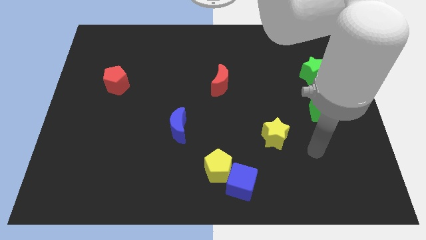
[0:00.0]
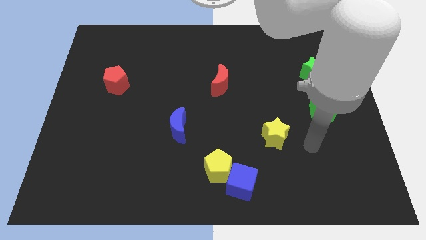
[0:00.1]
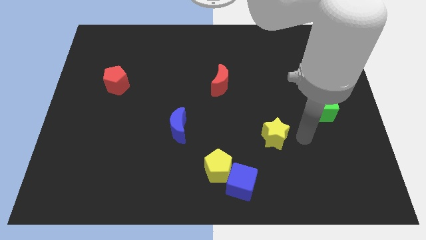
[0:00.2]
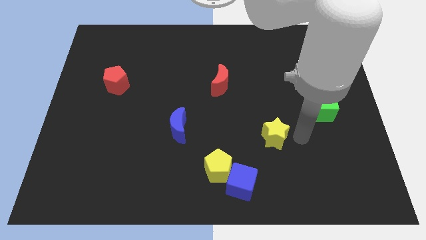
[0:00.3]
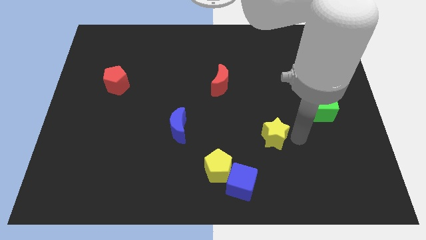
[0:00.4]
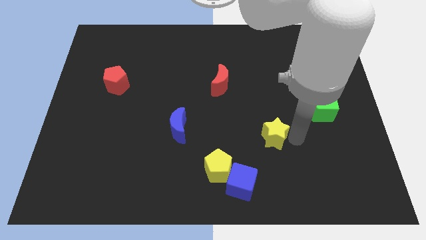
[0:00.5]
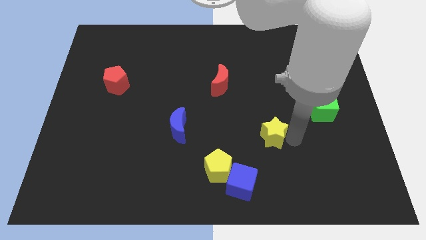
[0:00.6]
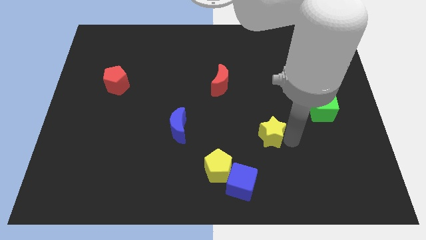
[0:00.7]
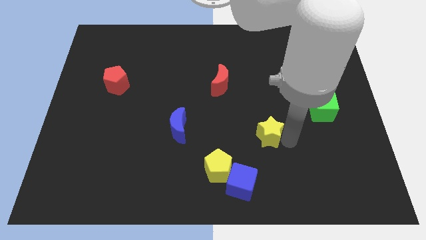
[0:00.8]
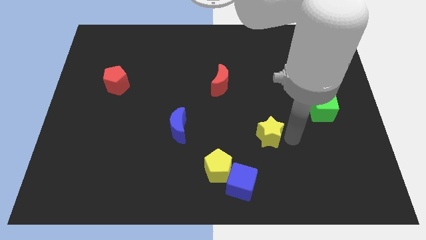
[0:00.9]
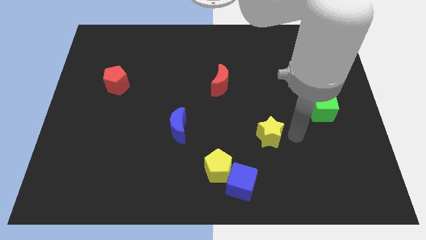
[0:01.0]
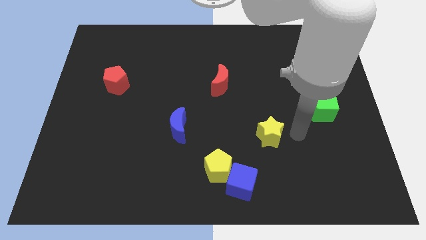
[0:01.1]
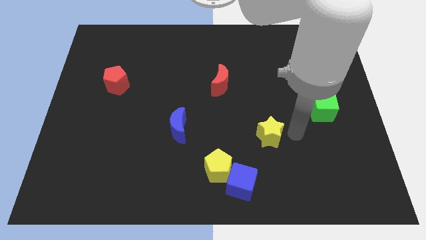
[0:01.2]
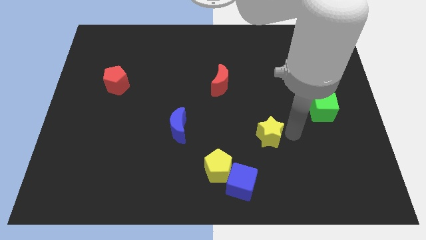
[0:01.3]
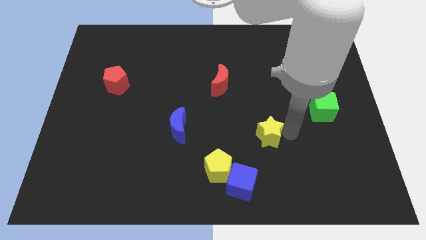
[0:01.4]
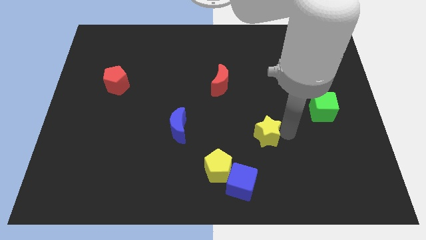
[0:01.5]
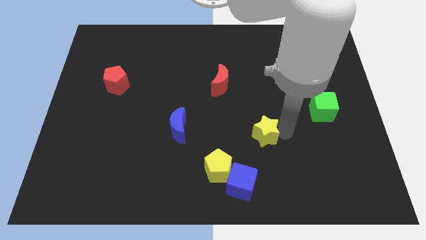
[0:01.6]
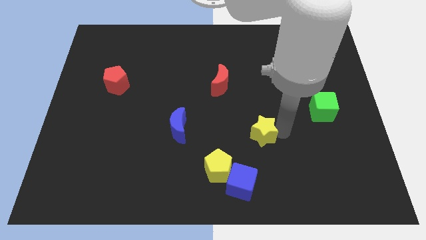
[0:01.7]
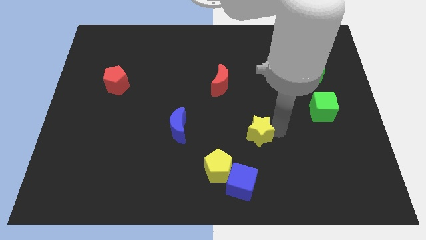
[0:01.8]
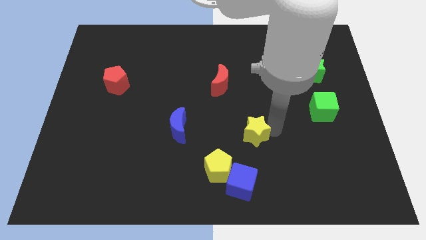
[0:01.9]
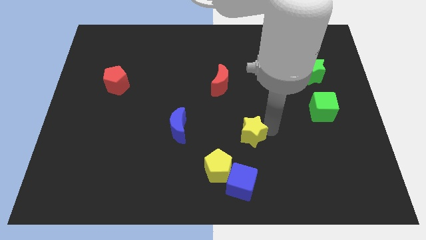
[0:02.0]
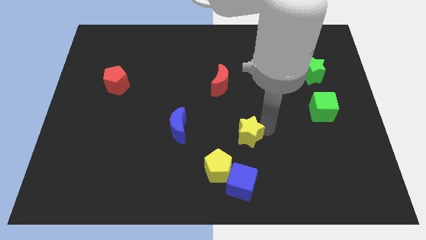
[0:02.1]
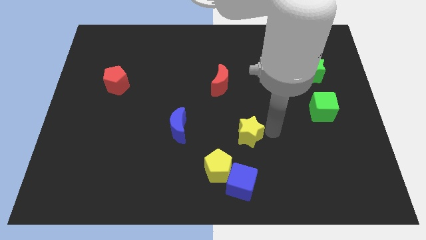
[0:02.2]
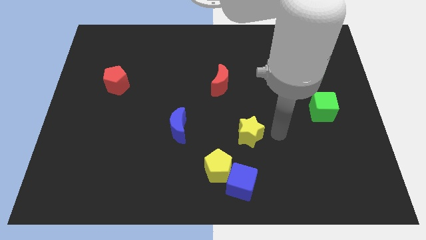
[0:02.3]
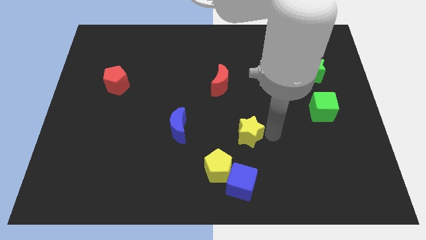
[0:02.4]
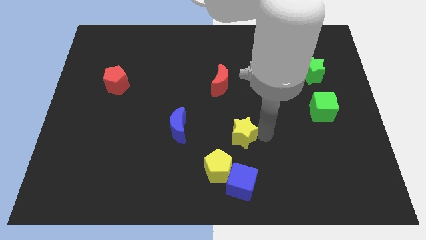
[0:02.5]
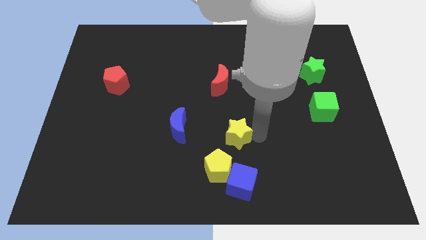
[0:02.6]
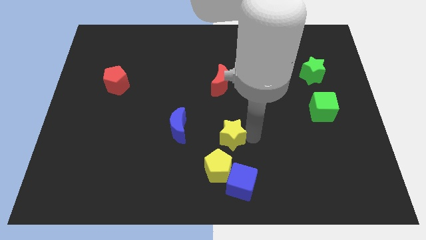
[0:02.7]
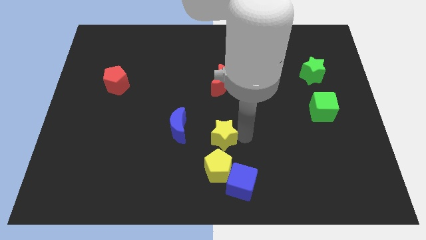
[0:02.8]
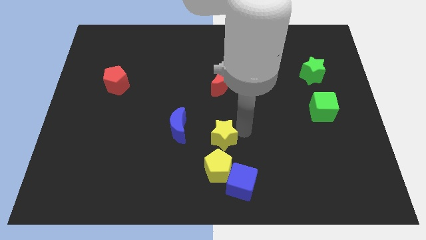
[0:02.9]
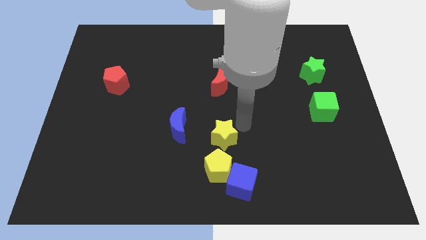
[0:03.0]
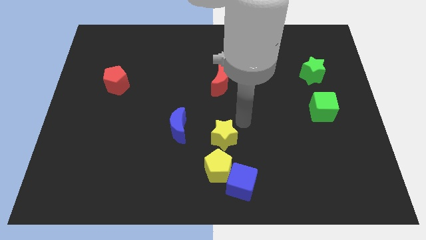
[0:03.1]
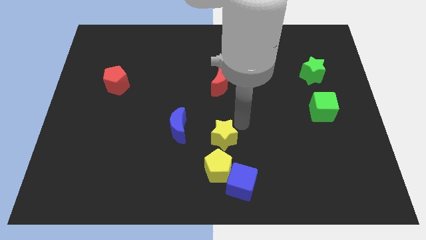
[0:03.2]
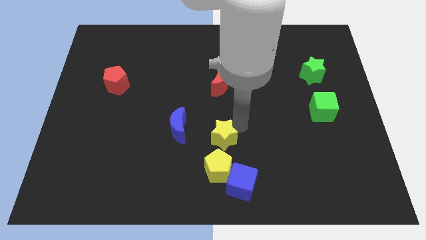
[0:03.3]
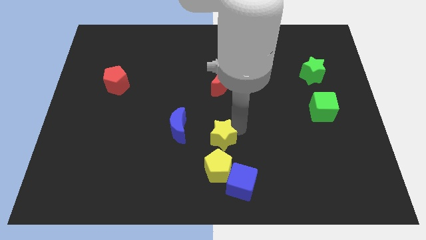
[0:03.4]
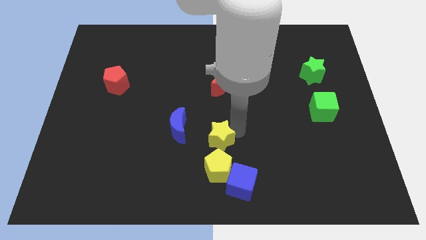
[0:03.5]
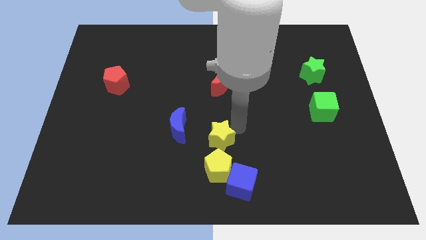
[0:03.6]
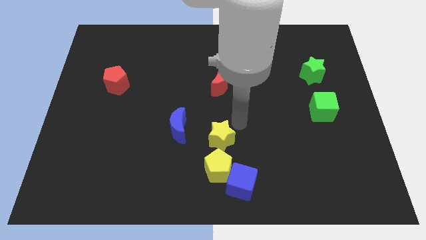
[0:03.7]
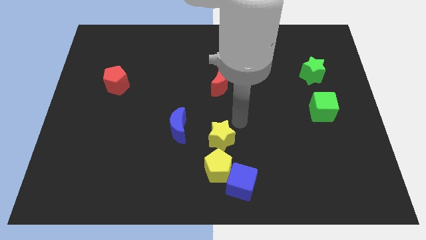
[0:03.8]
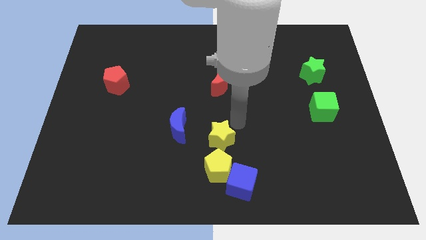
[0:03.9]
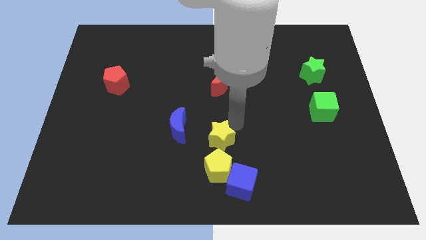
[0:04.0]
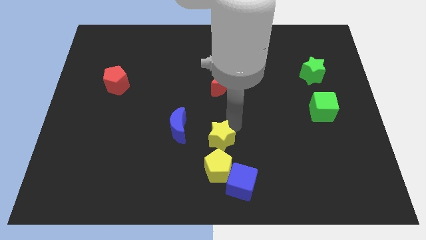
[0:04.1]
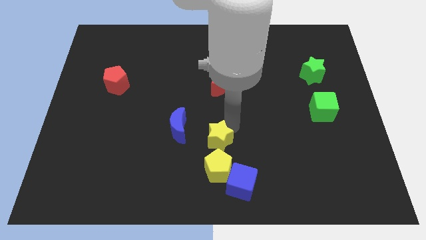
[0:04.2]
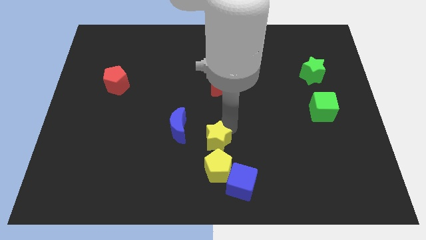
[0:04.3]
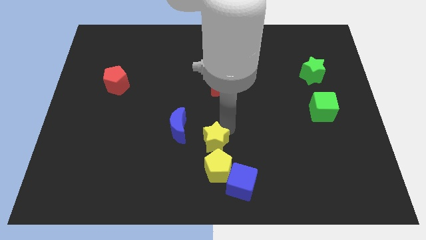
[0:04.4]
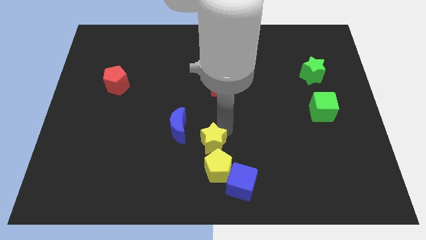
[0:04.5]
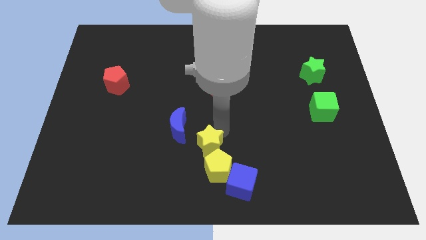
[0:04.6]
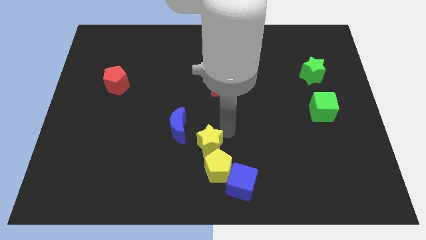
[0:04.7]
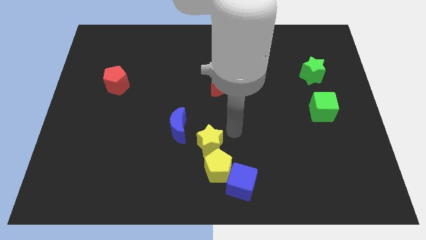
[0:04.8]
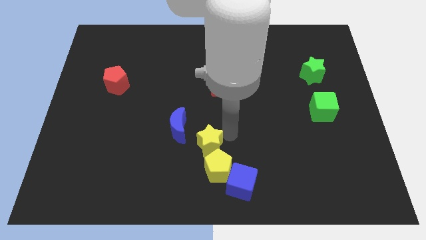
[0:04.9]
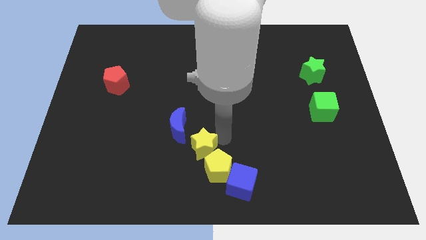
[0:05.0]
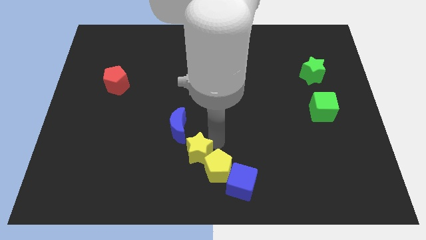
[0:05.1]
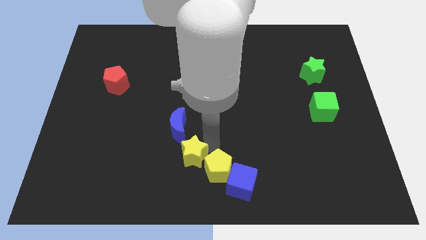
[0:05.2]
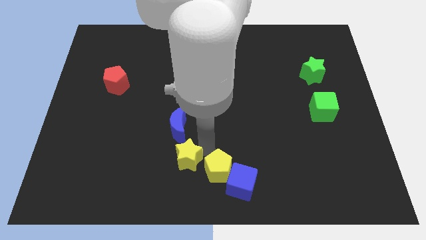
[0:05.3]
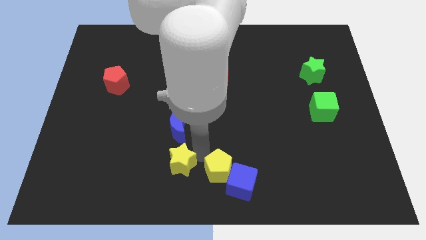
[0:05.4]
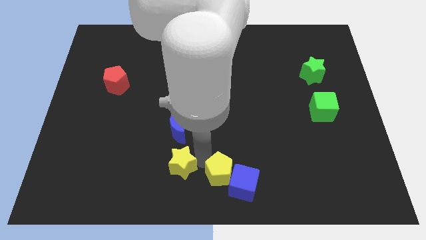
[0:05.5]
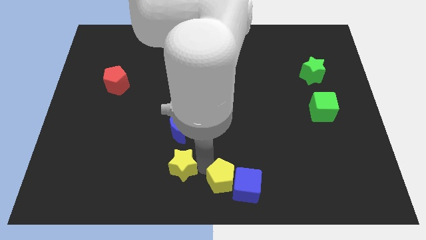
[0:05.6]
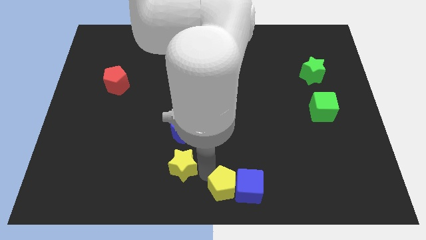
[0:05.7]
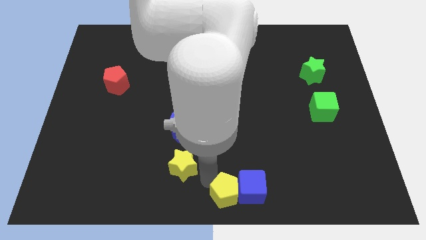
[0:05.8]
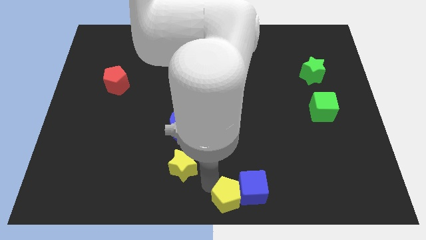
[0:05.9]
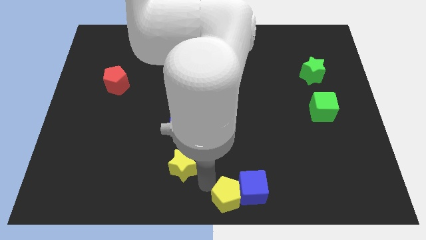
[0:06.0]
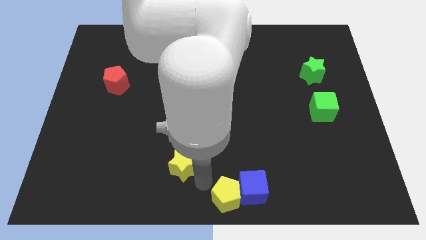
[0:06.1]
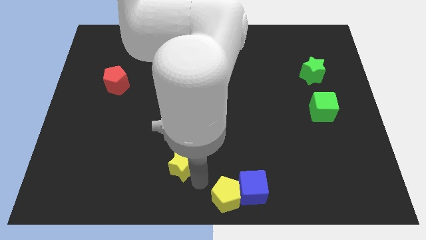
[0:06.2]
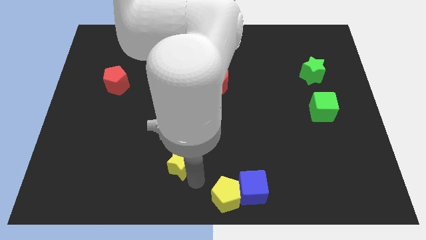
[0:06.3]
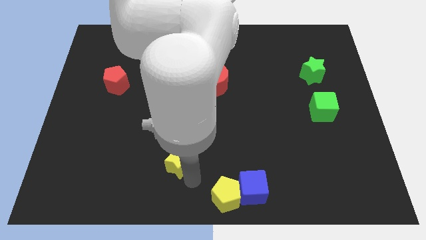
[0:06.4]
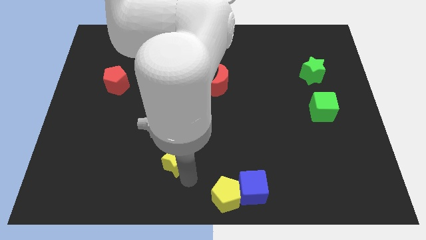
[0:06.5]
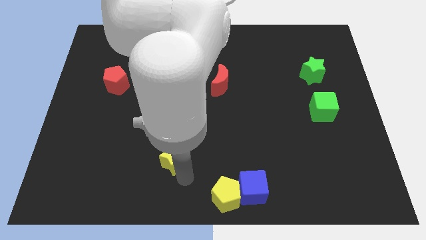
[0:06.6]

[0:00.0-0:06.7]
push the yellow star left

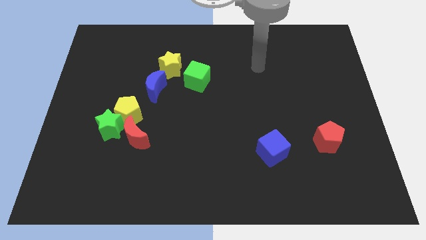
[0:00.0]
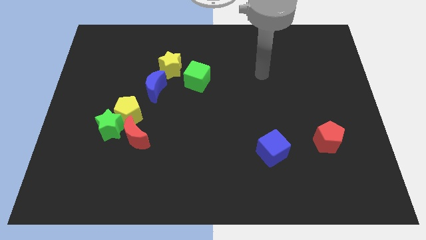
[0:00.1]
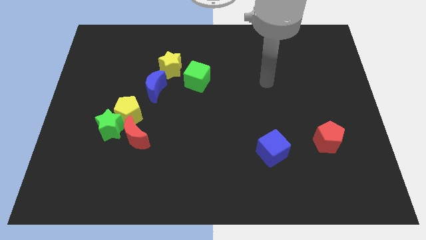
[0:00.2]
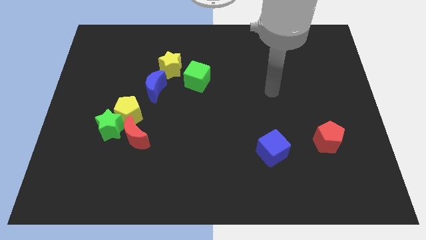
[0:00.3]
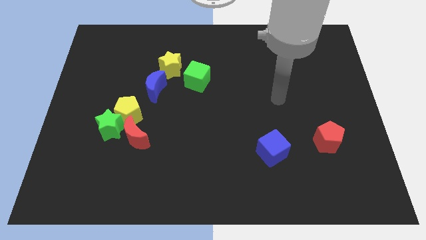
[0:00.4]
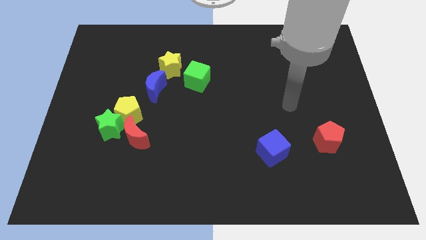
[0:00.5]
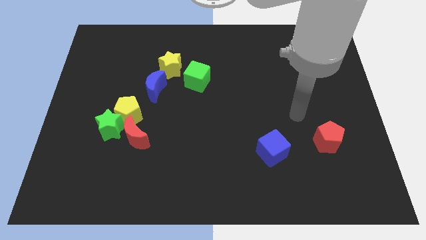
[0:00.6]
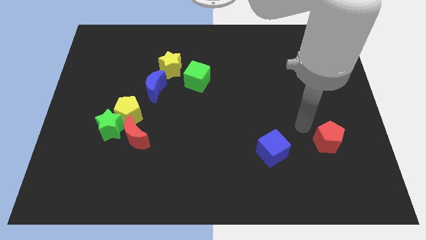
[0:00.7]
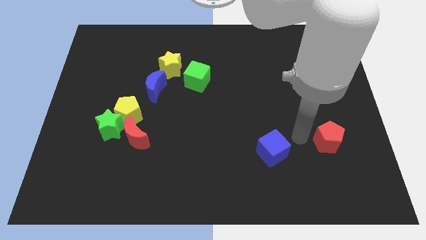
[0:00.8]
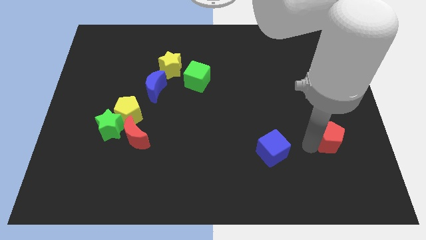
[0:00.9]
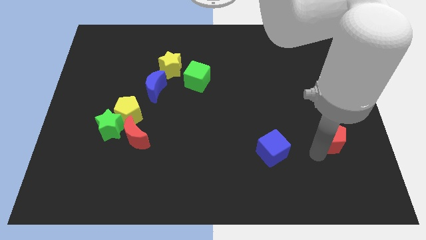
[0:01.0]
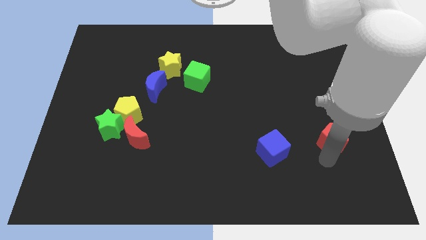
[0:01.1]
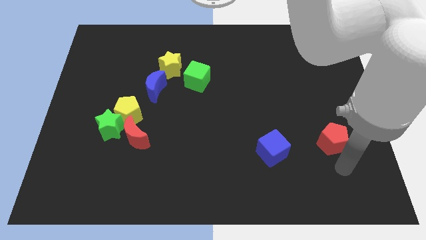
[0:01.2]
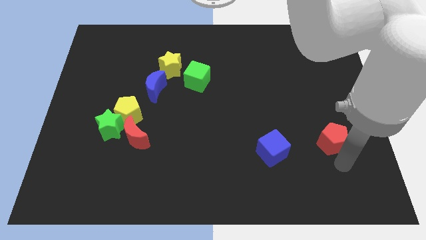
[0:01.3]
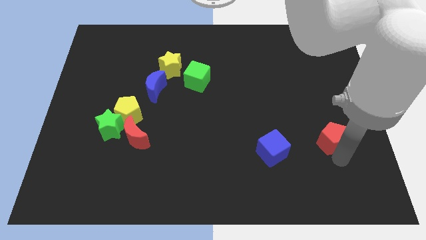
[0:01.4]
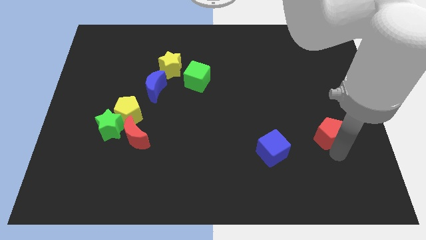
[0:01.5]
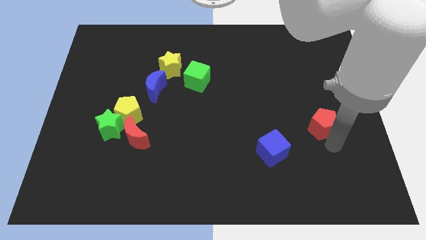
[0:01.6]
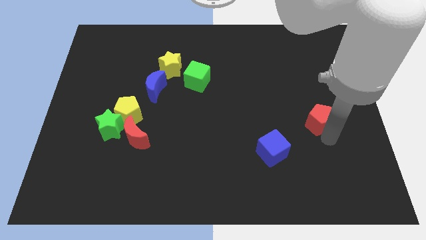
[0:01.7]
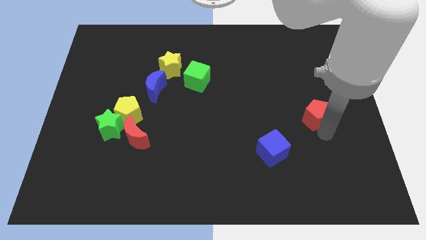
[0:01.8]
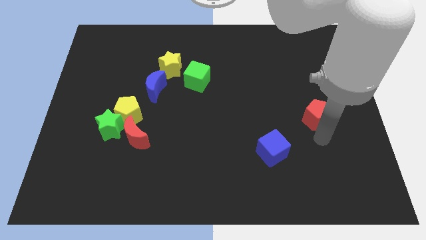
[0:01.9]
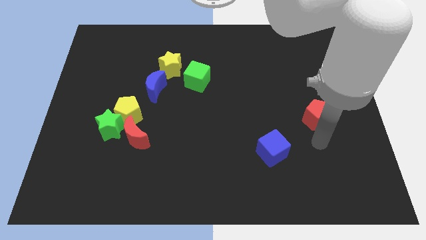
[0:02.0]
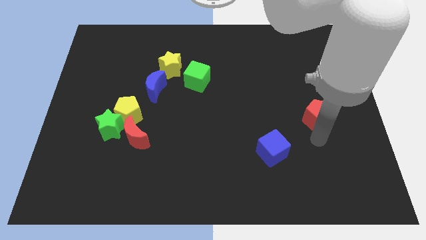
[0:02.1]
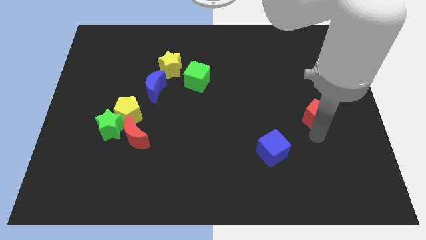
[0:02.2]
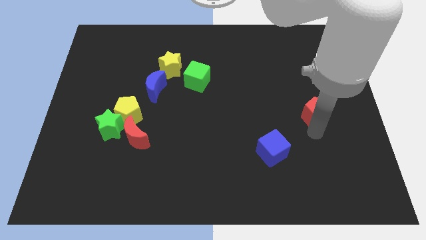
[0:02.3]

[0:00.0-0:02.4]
move the red pentagon up a little
